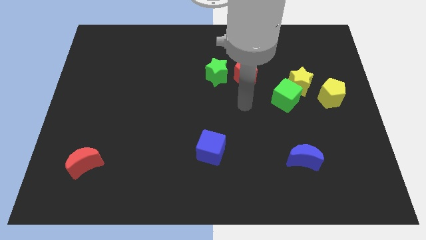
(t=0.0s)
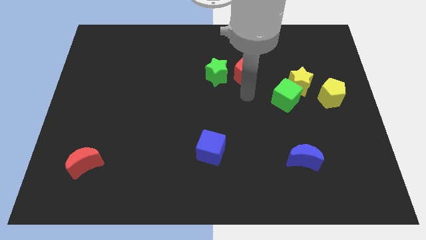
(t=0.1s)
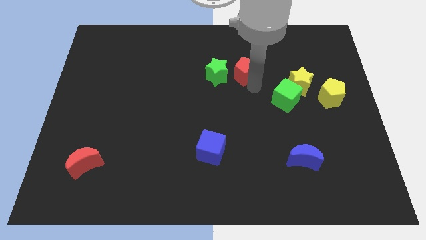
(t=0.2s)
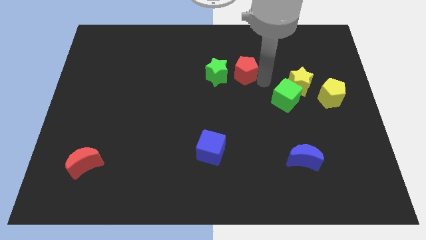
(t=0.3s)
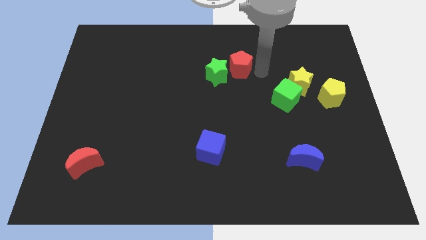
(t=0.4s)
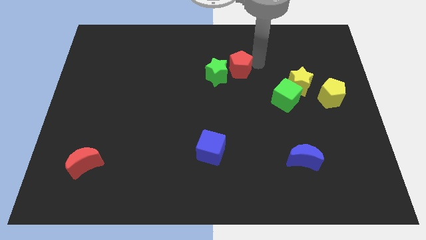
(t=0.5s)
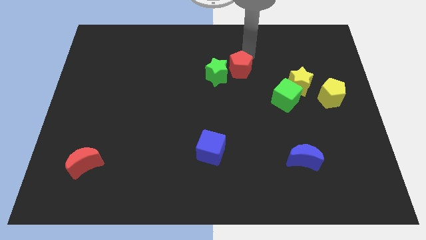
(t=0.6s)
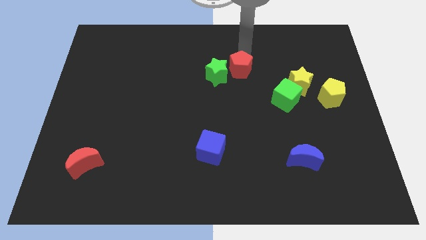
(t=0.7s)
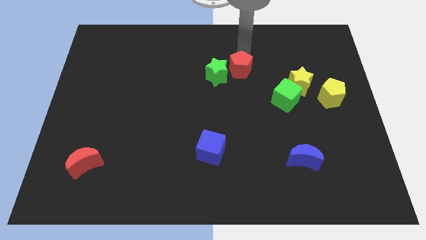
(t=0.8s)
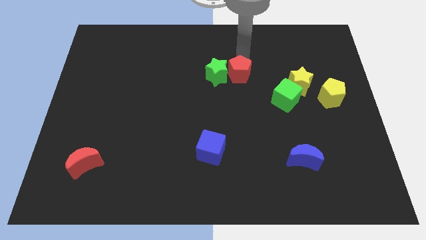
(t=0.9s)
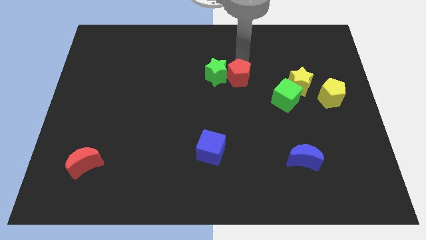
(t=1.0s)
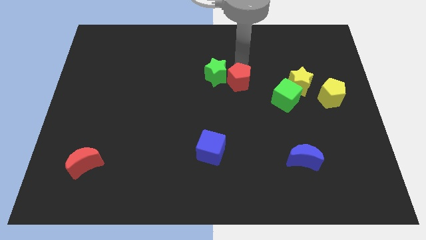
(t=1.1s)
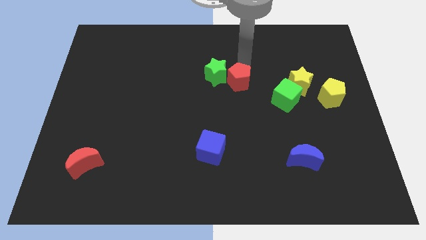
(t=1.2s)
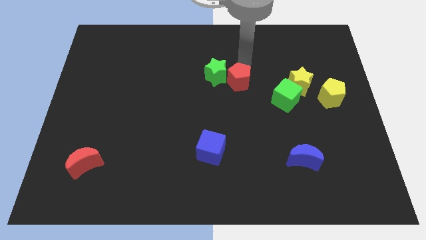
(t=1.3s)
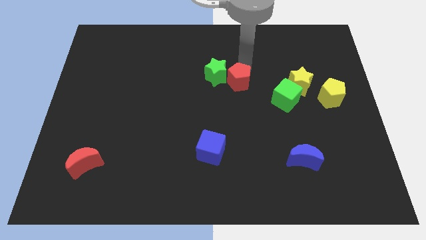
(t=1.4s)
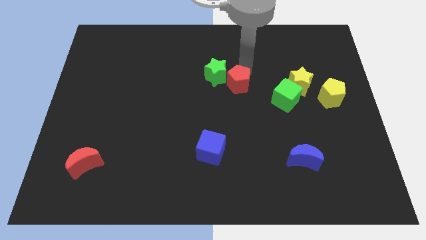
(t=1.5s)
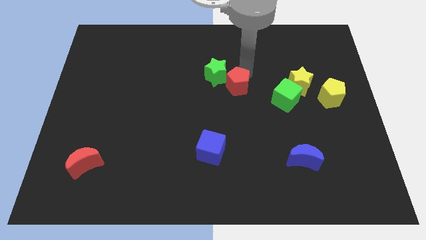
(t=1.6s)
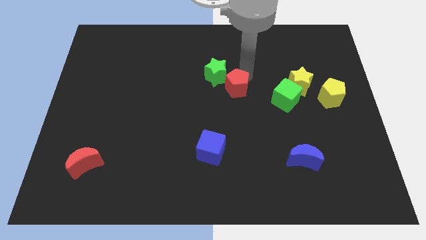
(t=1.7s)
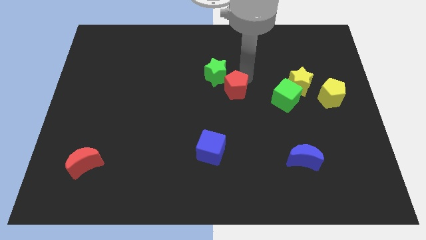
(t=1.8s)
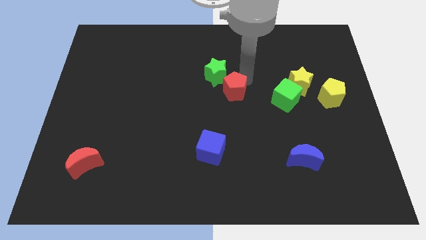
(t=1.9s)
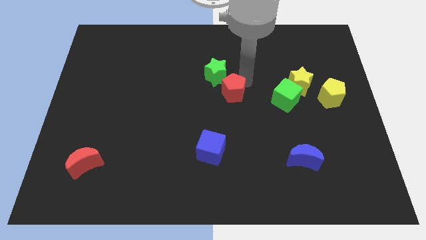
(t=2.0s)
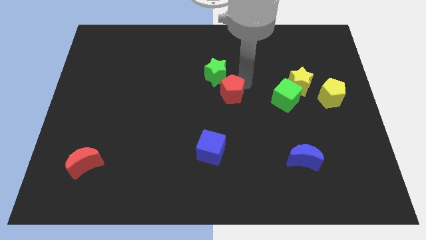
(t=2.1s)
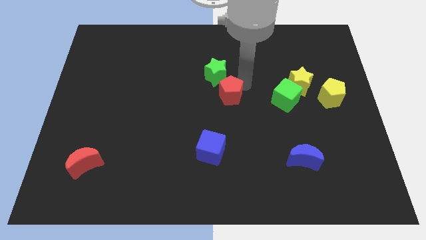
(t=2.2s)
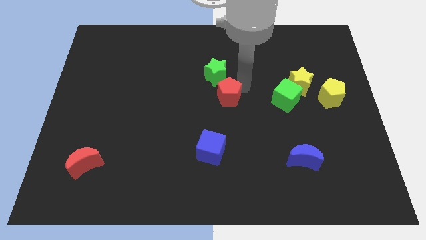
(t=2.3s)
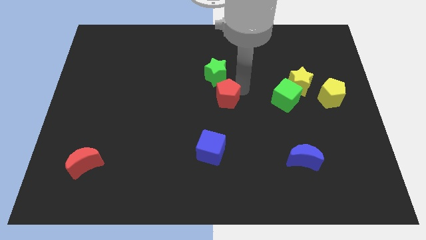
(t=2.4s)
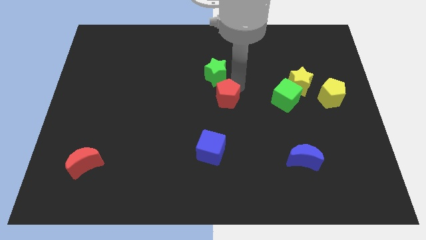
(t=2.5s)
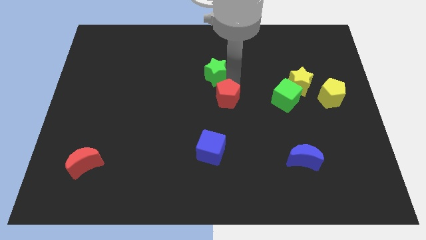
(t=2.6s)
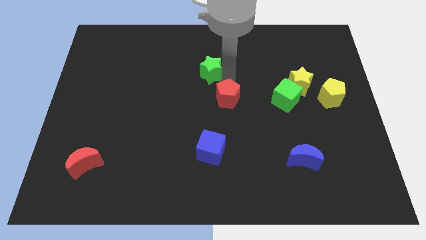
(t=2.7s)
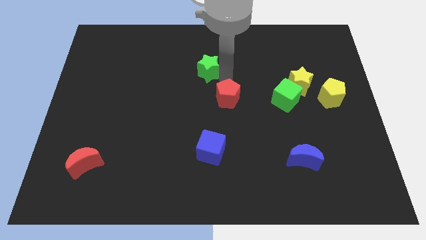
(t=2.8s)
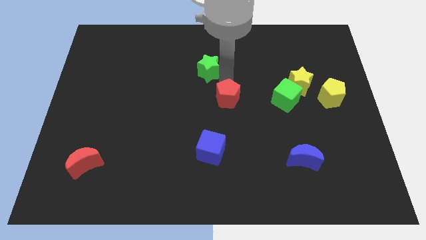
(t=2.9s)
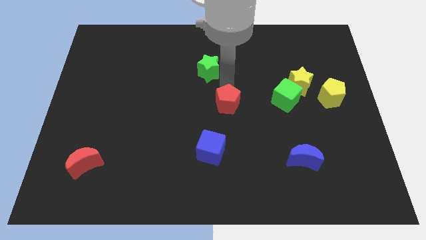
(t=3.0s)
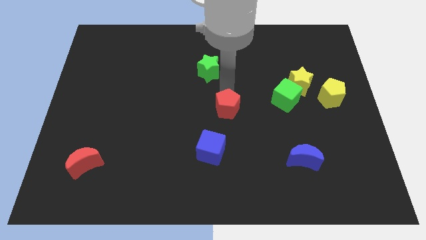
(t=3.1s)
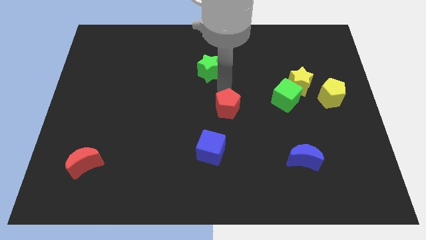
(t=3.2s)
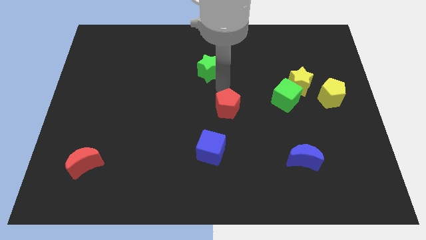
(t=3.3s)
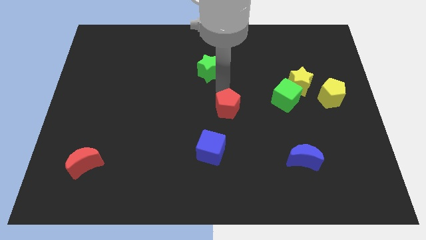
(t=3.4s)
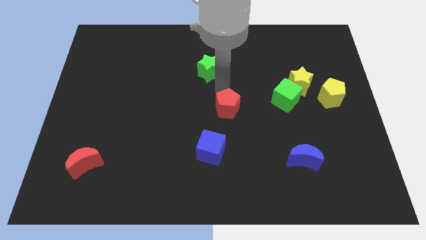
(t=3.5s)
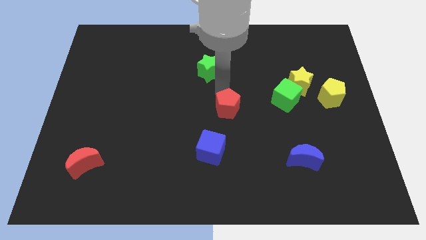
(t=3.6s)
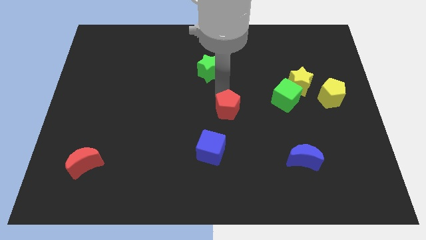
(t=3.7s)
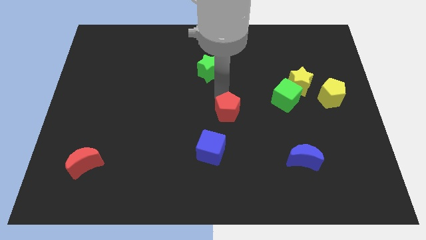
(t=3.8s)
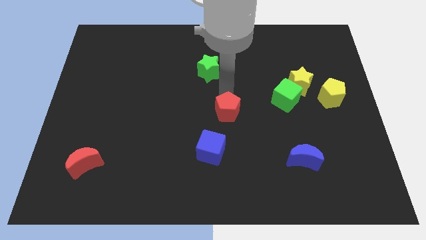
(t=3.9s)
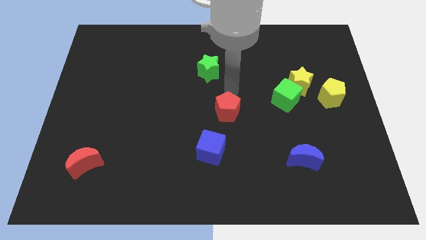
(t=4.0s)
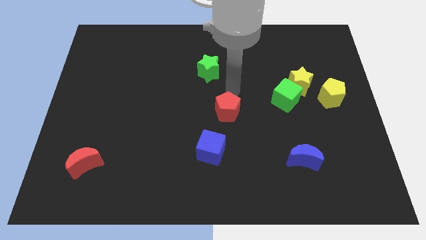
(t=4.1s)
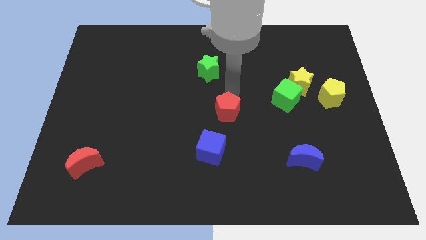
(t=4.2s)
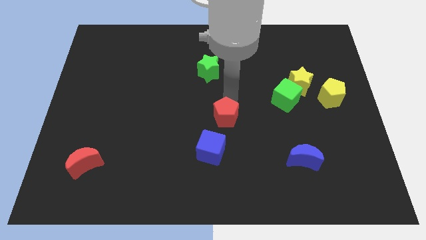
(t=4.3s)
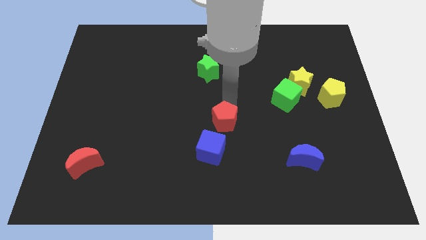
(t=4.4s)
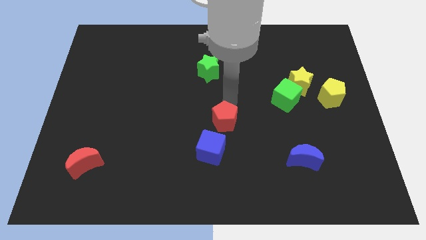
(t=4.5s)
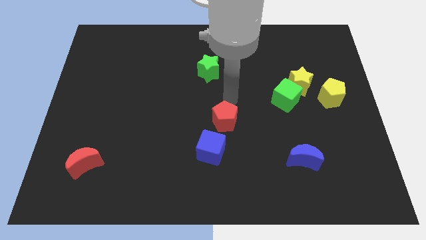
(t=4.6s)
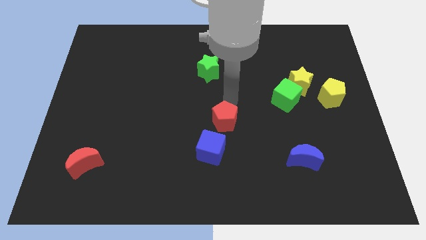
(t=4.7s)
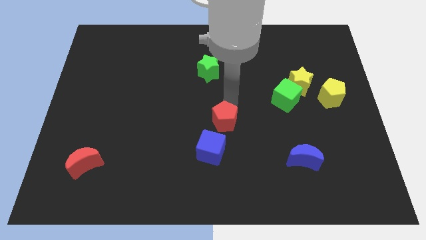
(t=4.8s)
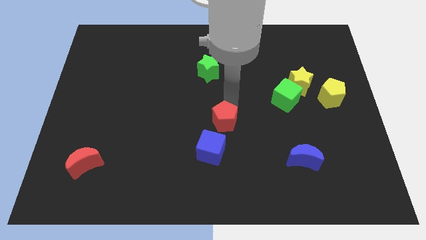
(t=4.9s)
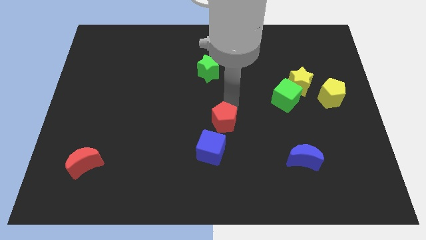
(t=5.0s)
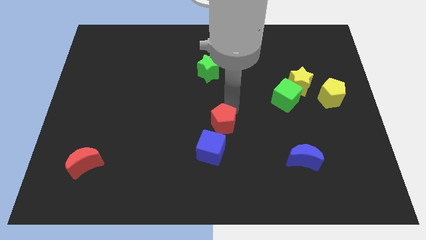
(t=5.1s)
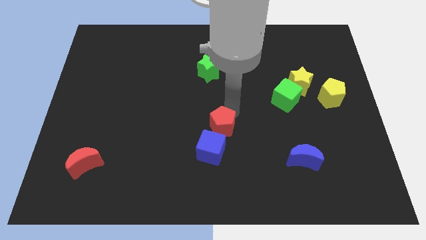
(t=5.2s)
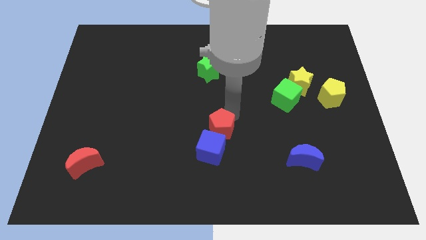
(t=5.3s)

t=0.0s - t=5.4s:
move the red pentagon next to the blue cube
